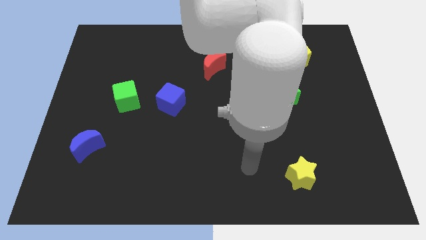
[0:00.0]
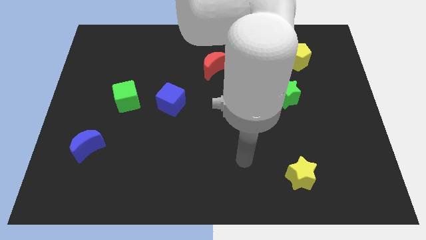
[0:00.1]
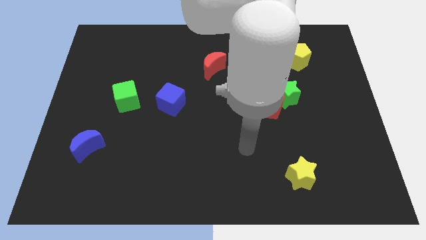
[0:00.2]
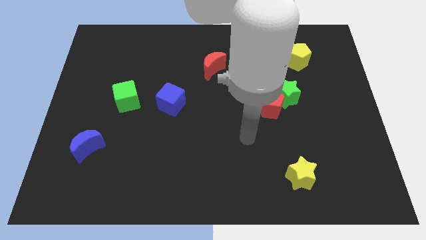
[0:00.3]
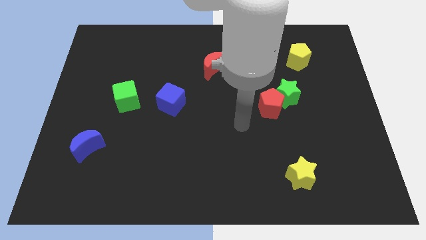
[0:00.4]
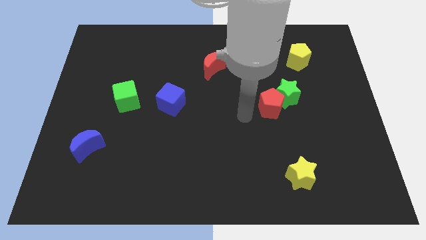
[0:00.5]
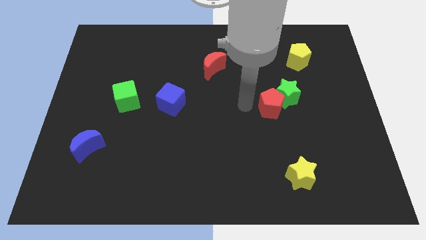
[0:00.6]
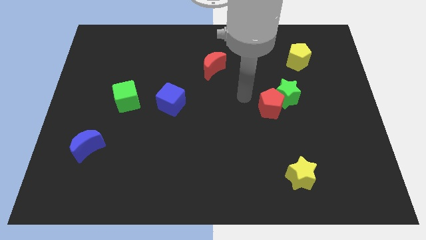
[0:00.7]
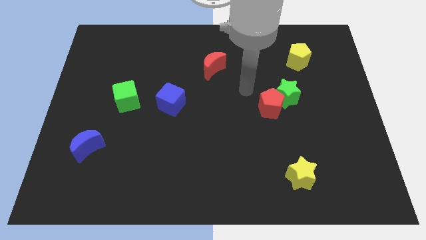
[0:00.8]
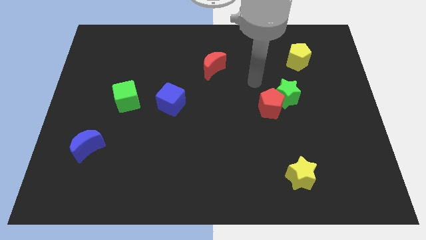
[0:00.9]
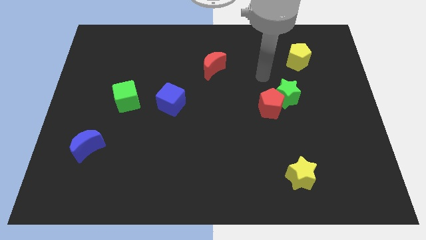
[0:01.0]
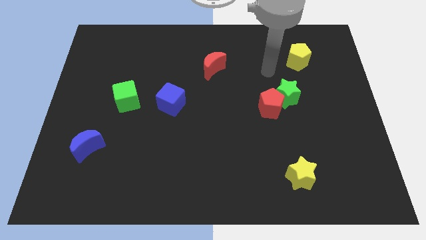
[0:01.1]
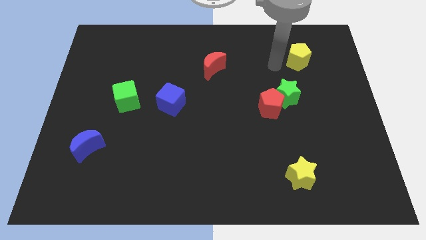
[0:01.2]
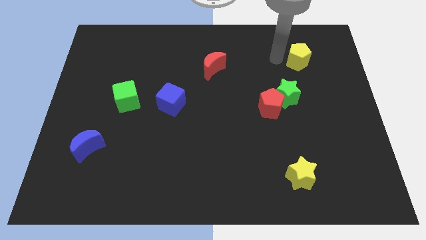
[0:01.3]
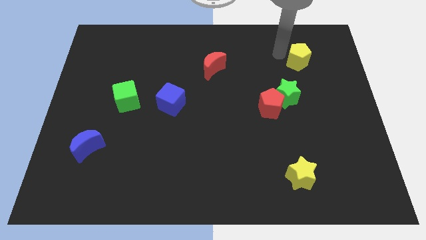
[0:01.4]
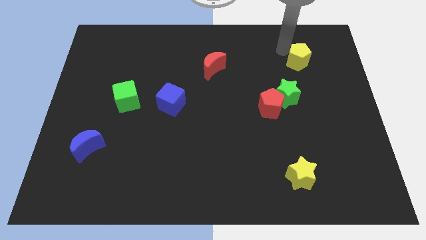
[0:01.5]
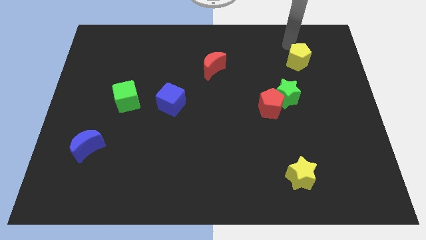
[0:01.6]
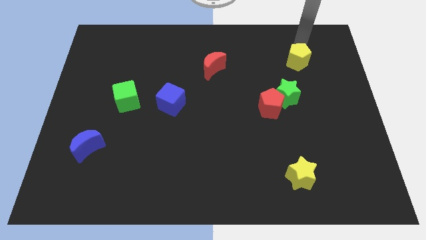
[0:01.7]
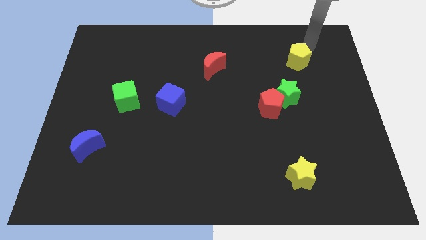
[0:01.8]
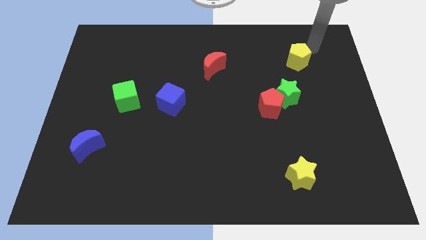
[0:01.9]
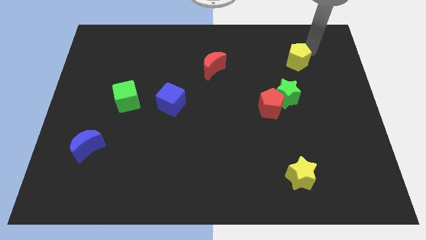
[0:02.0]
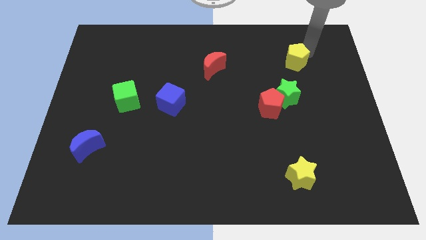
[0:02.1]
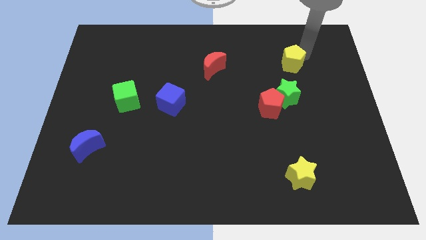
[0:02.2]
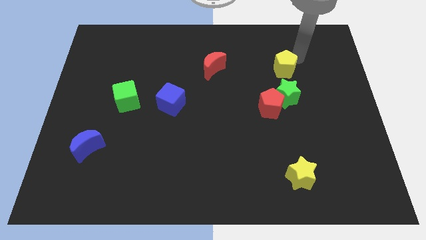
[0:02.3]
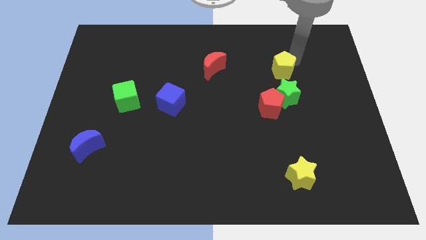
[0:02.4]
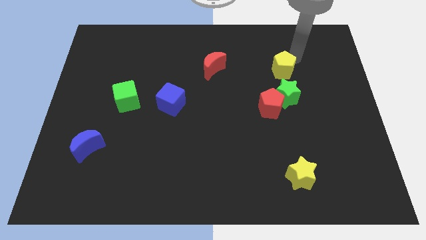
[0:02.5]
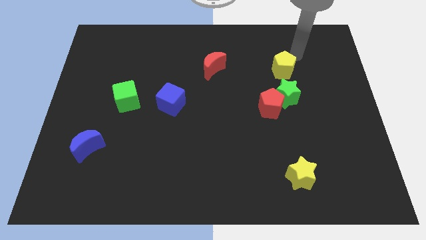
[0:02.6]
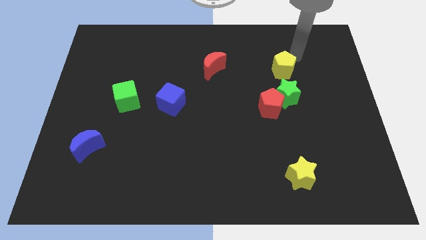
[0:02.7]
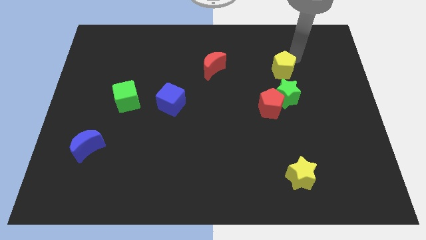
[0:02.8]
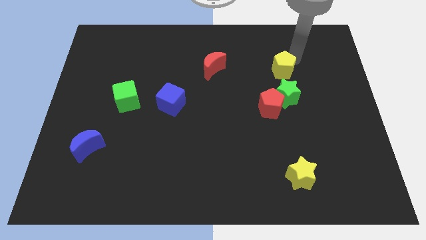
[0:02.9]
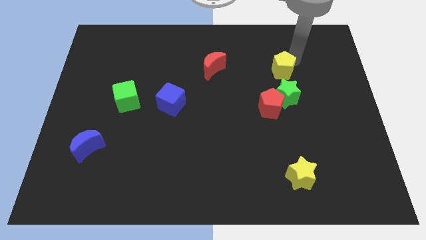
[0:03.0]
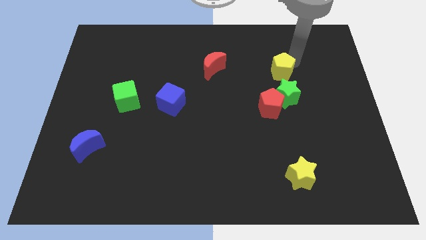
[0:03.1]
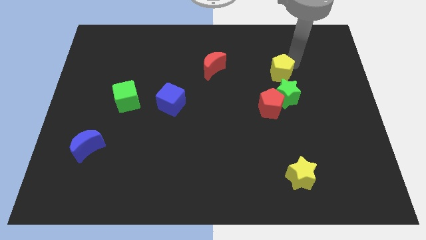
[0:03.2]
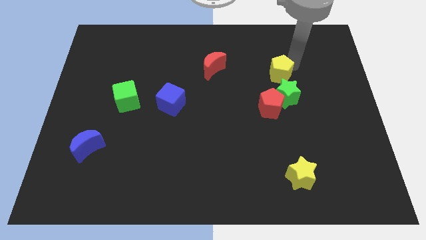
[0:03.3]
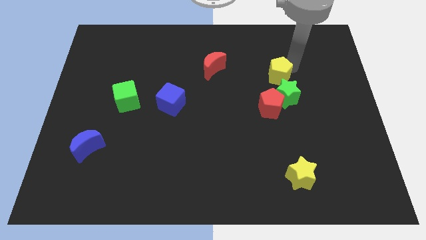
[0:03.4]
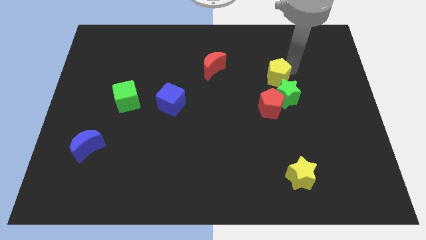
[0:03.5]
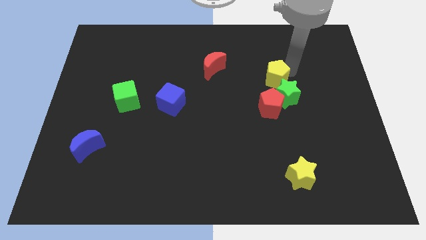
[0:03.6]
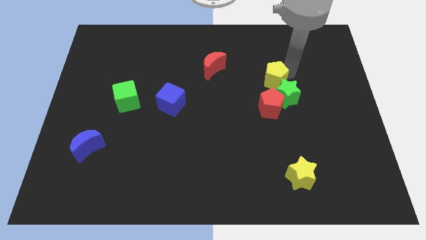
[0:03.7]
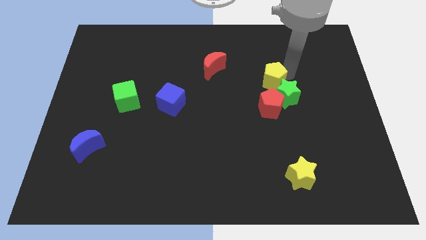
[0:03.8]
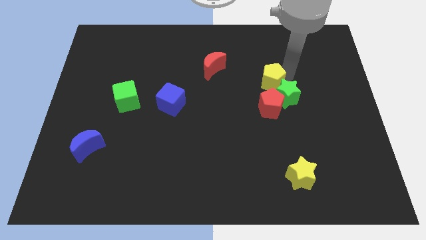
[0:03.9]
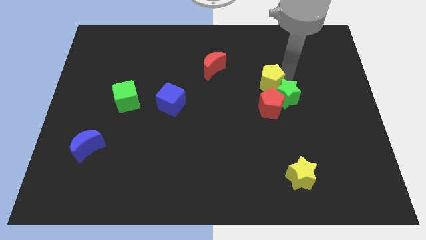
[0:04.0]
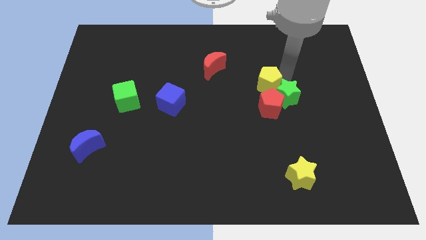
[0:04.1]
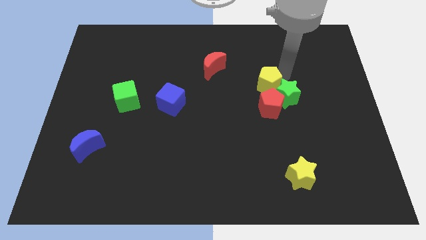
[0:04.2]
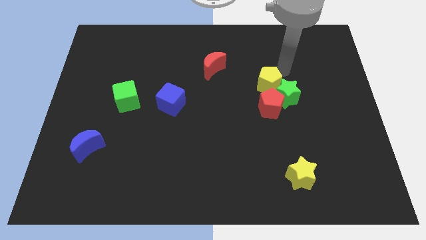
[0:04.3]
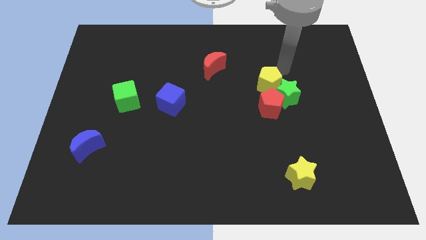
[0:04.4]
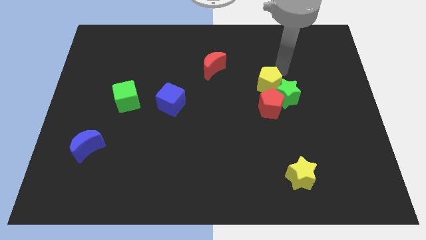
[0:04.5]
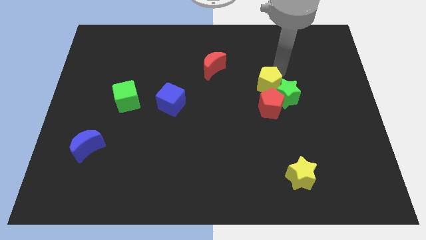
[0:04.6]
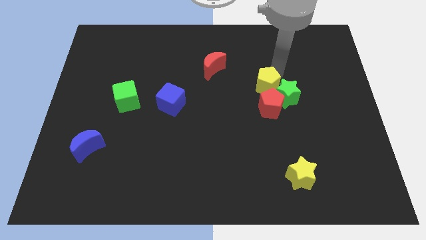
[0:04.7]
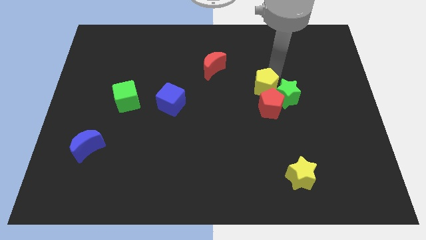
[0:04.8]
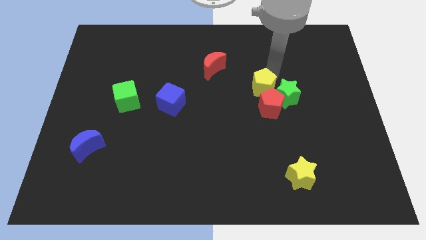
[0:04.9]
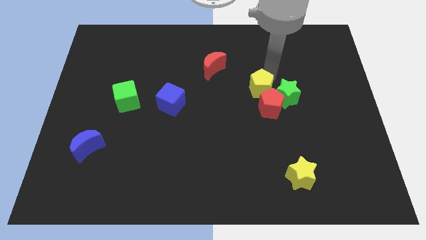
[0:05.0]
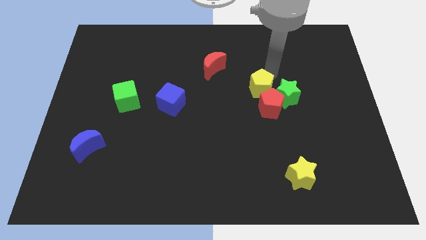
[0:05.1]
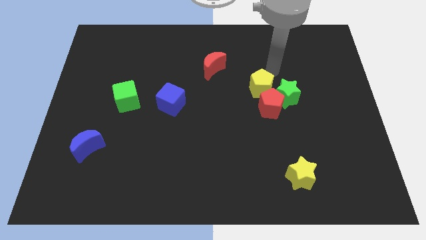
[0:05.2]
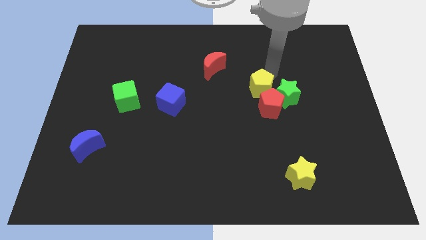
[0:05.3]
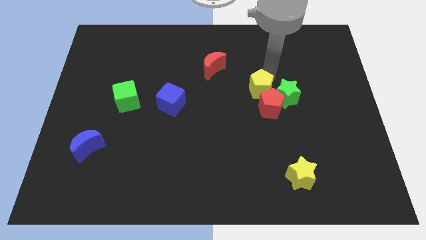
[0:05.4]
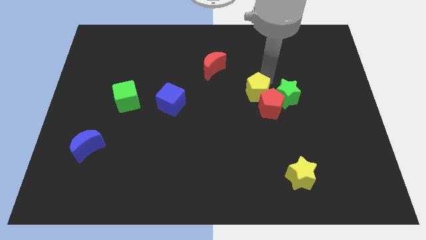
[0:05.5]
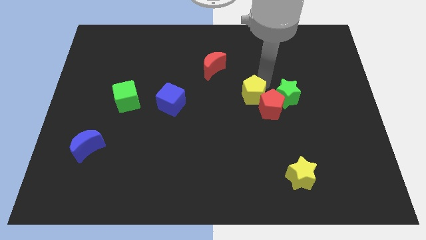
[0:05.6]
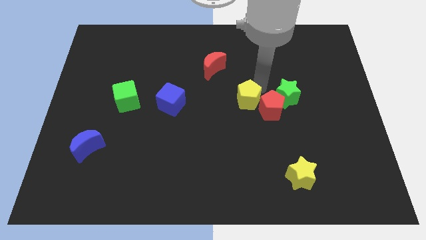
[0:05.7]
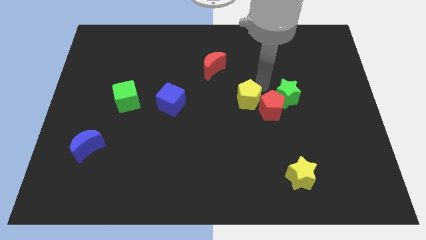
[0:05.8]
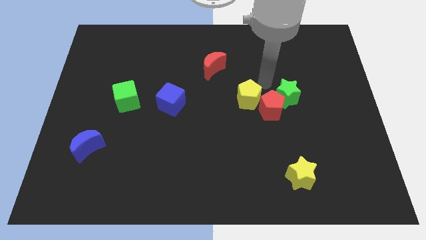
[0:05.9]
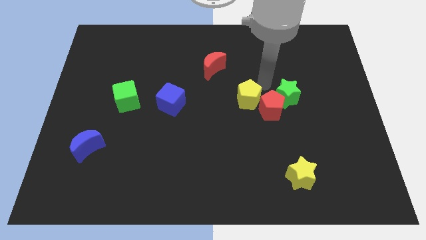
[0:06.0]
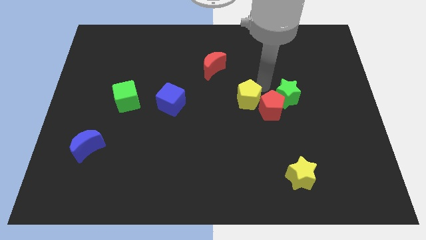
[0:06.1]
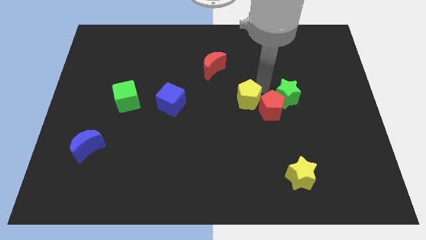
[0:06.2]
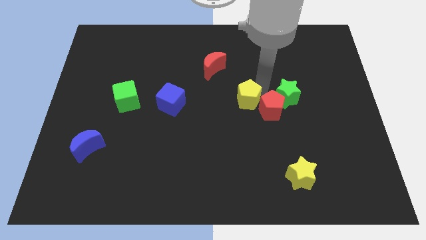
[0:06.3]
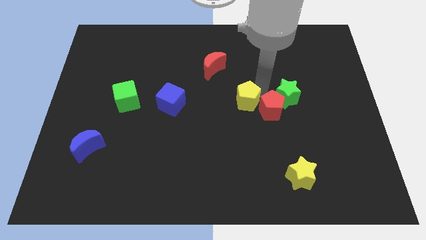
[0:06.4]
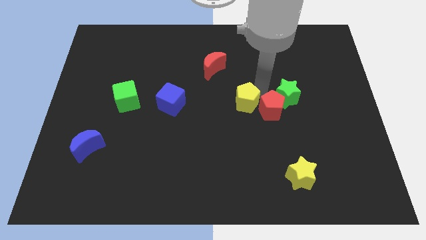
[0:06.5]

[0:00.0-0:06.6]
slide the yellow pentagon downwards and left

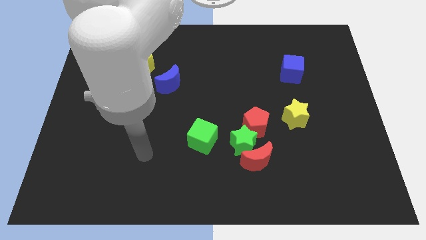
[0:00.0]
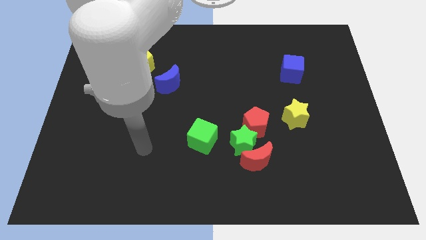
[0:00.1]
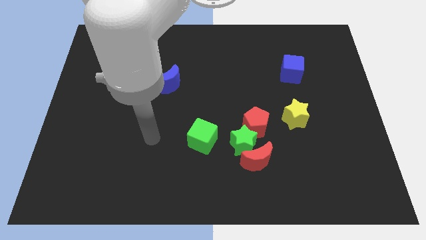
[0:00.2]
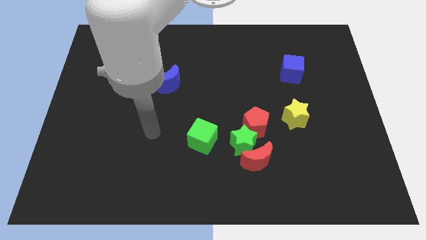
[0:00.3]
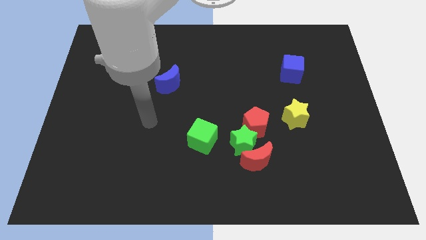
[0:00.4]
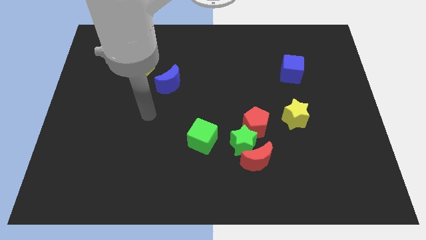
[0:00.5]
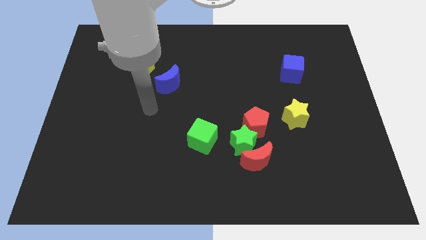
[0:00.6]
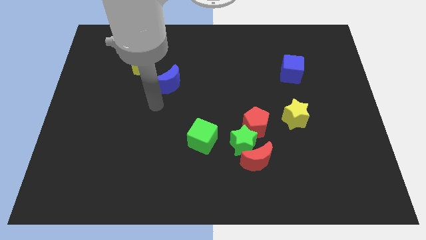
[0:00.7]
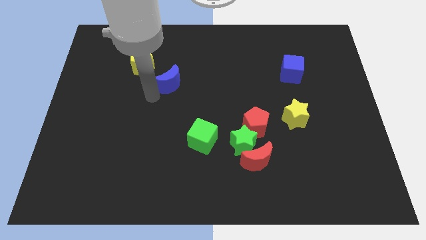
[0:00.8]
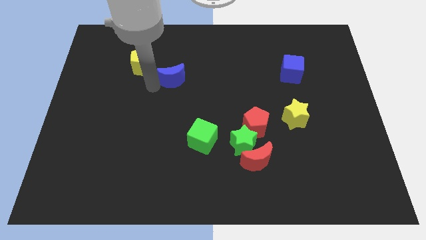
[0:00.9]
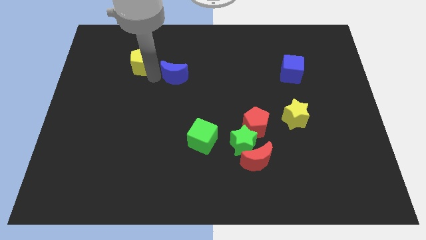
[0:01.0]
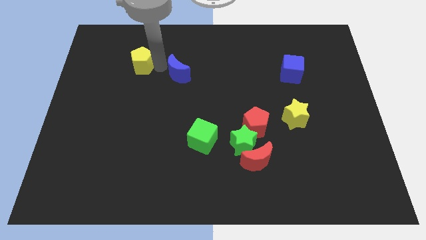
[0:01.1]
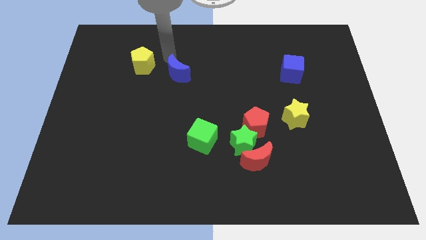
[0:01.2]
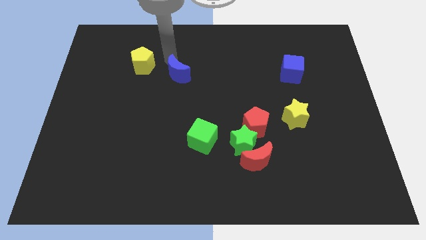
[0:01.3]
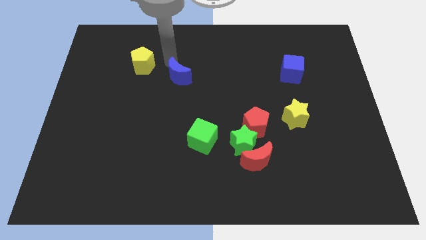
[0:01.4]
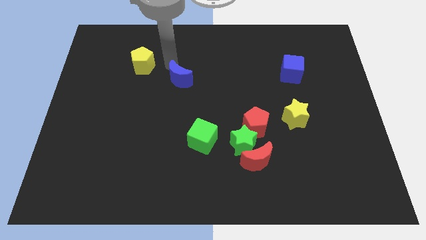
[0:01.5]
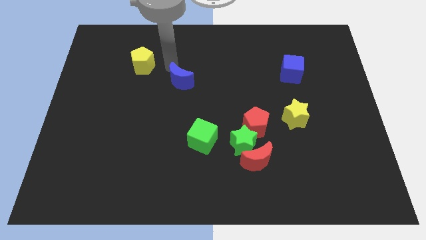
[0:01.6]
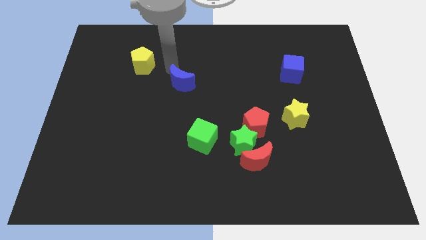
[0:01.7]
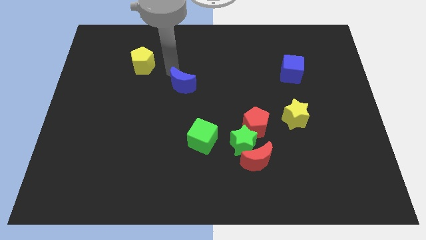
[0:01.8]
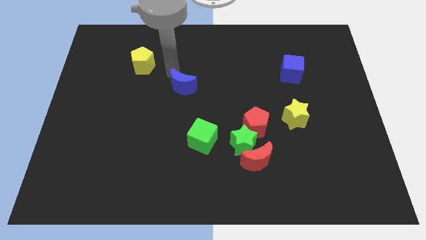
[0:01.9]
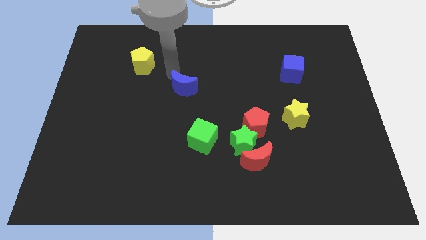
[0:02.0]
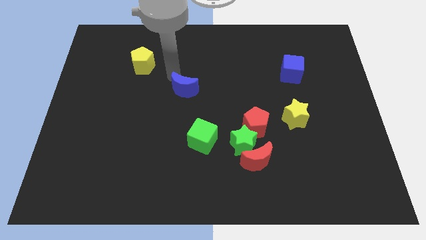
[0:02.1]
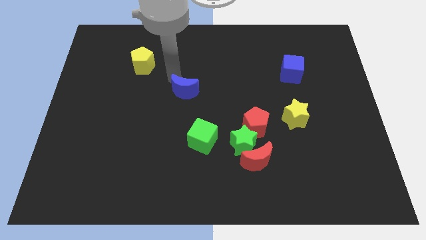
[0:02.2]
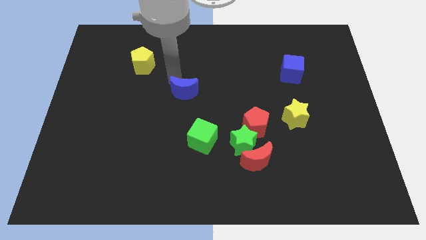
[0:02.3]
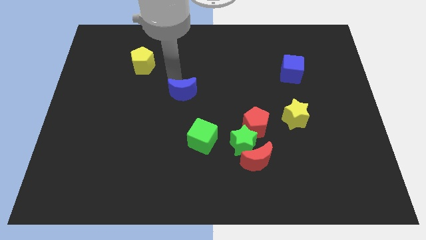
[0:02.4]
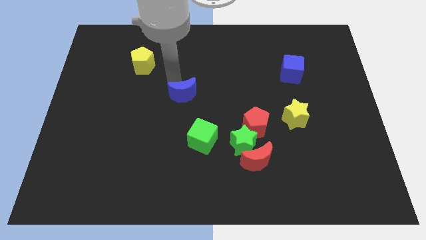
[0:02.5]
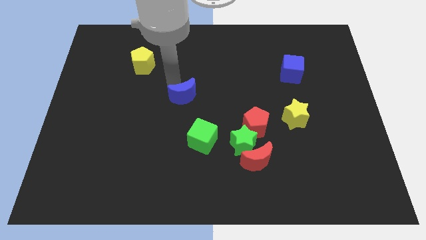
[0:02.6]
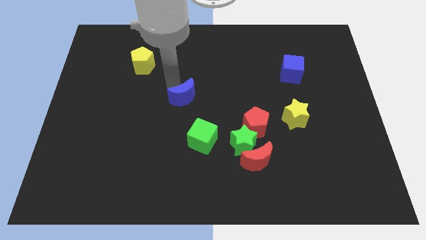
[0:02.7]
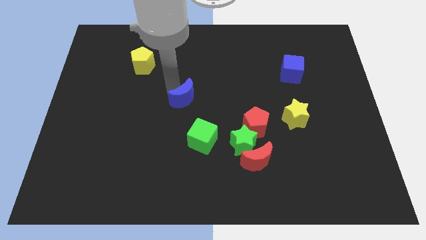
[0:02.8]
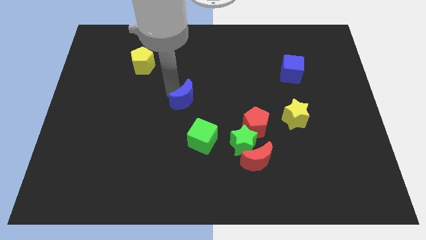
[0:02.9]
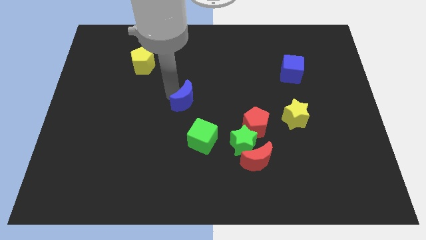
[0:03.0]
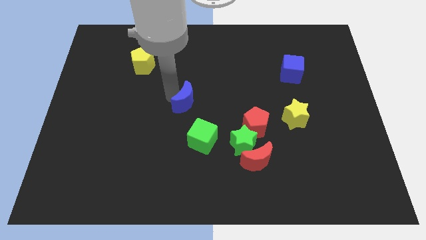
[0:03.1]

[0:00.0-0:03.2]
slightly move the blue moon diagonally downwards and right
